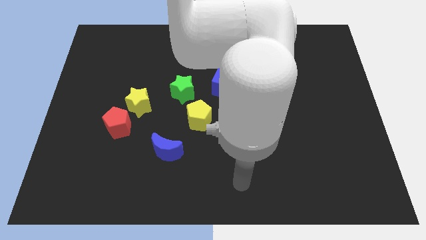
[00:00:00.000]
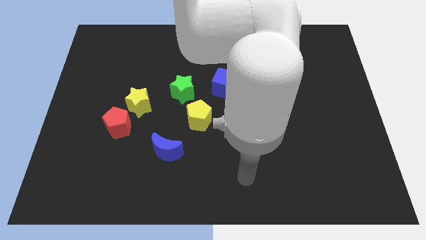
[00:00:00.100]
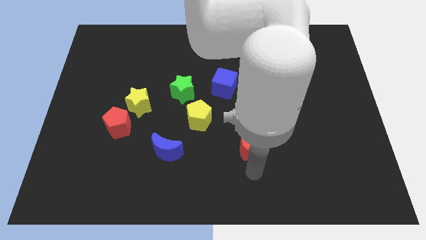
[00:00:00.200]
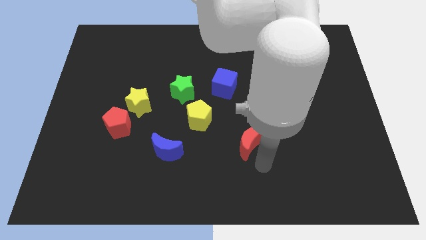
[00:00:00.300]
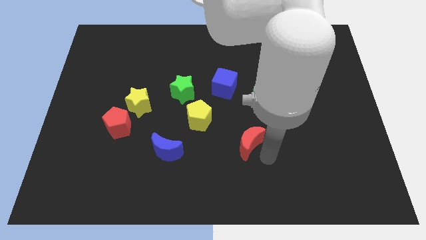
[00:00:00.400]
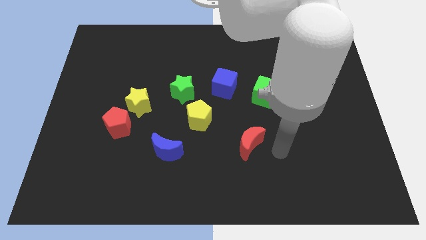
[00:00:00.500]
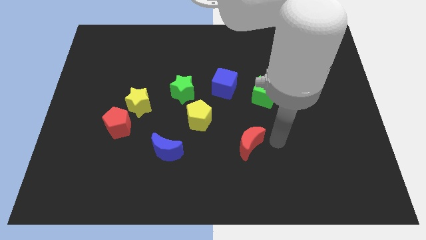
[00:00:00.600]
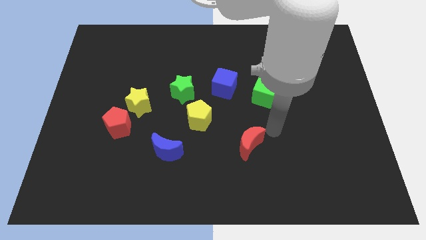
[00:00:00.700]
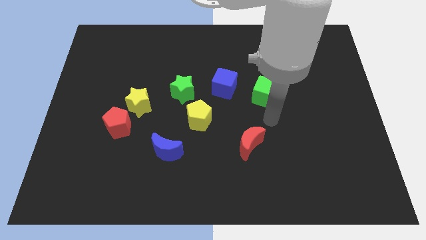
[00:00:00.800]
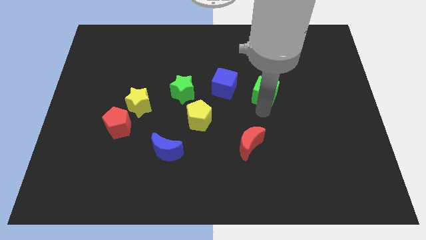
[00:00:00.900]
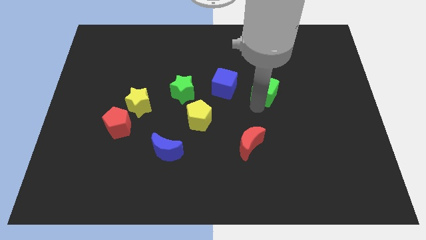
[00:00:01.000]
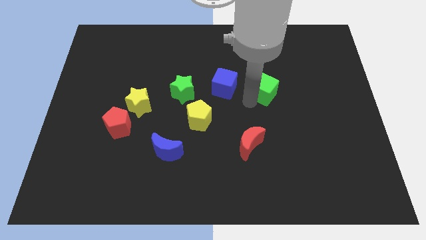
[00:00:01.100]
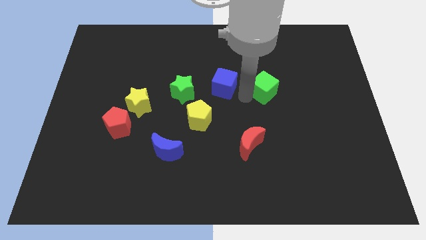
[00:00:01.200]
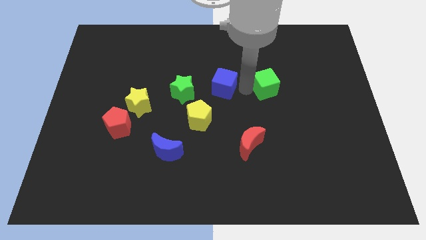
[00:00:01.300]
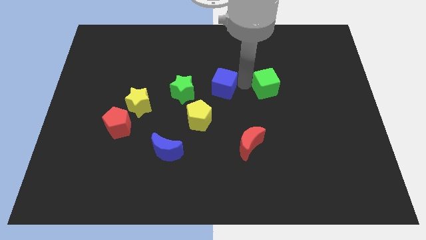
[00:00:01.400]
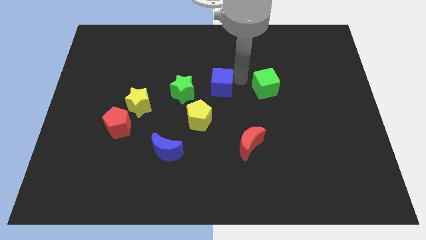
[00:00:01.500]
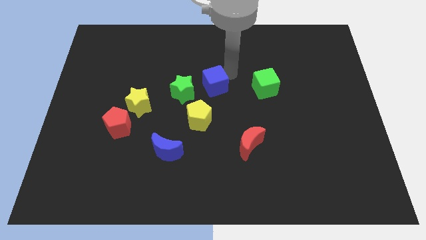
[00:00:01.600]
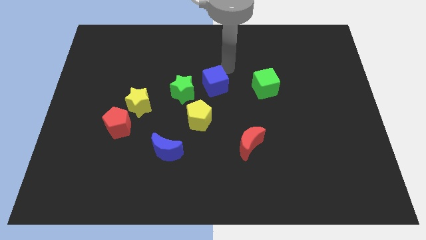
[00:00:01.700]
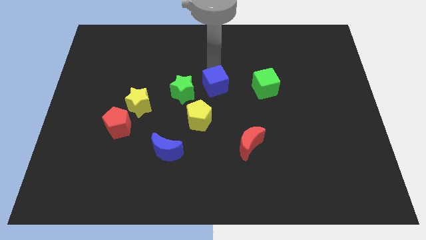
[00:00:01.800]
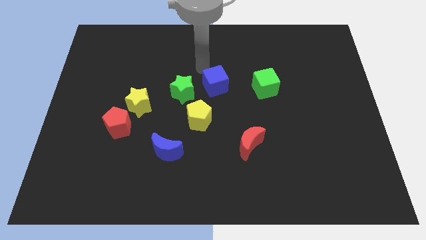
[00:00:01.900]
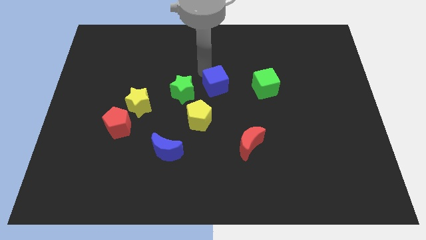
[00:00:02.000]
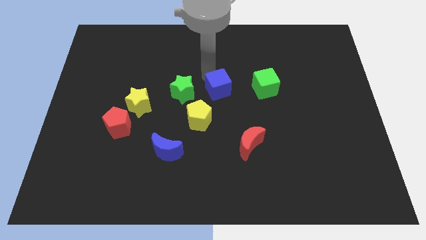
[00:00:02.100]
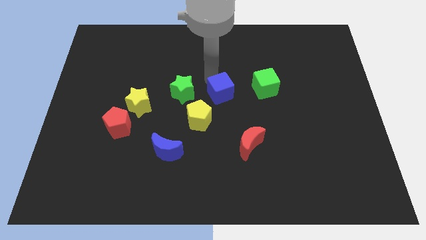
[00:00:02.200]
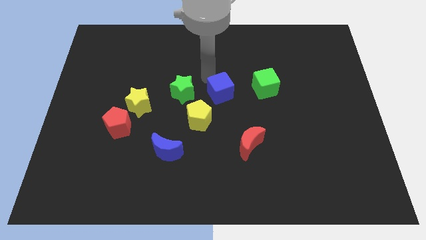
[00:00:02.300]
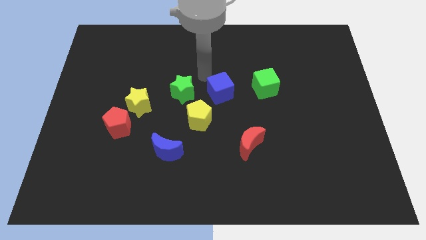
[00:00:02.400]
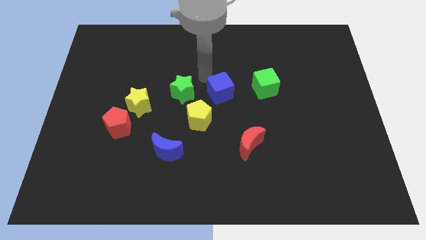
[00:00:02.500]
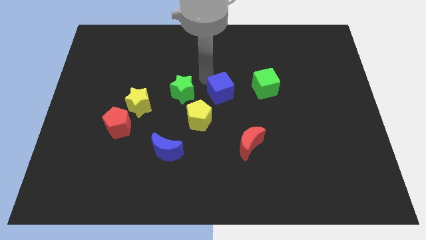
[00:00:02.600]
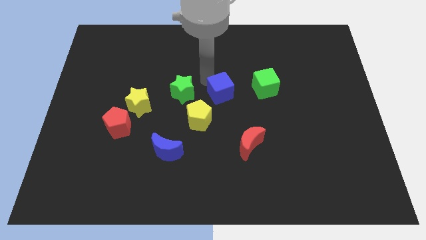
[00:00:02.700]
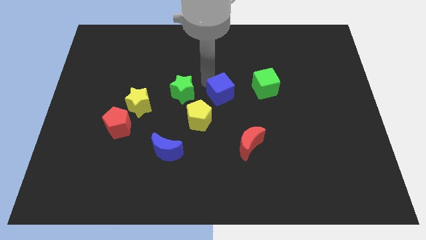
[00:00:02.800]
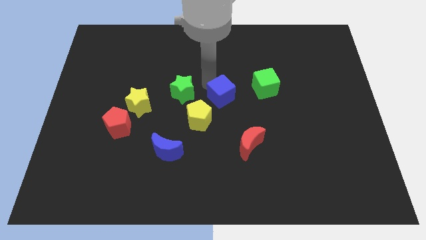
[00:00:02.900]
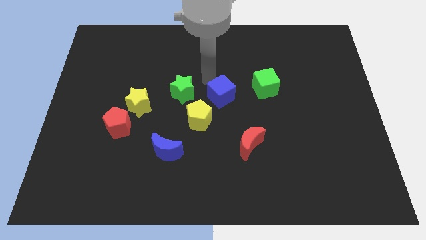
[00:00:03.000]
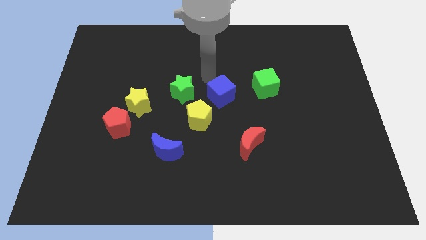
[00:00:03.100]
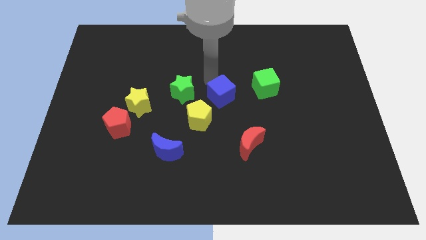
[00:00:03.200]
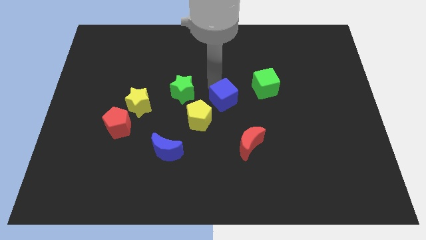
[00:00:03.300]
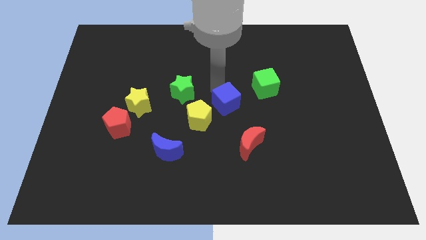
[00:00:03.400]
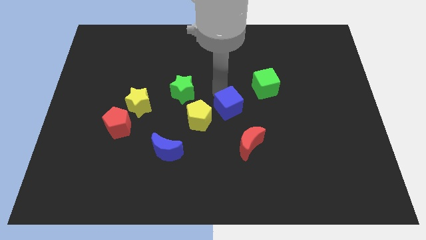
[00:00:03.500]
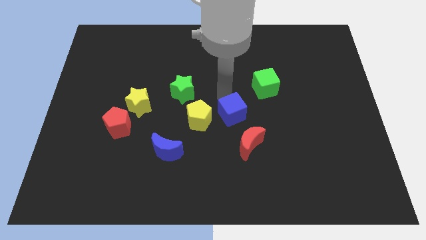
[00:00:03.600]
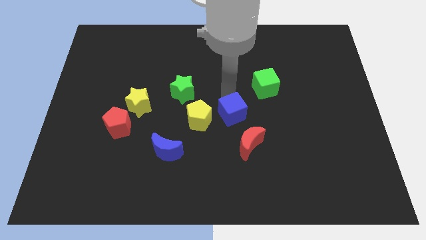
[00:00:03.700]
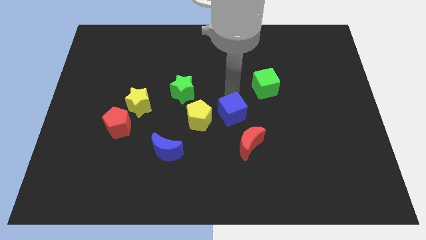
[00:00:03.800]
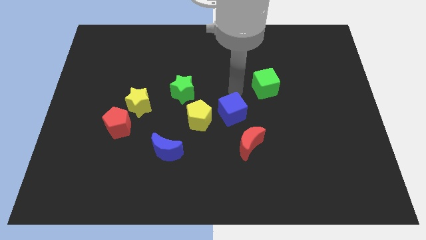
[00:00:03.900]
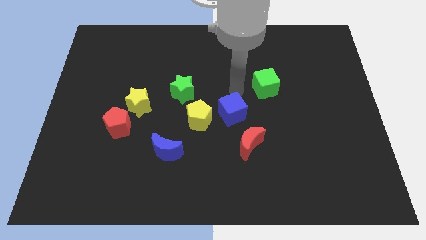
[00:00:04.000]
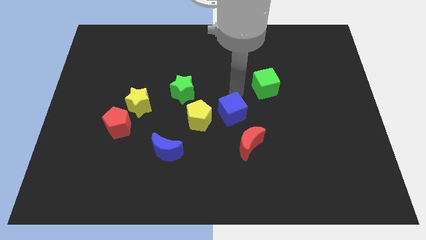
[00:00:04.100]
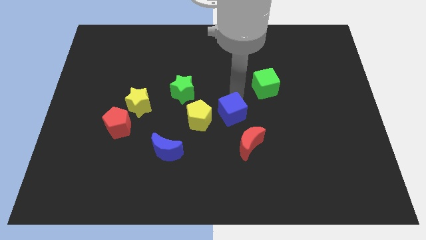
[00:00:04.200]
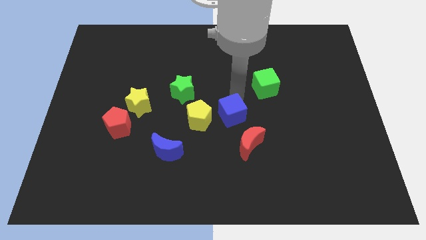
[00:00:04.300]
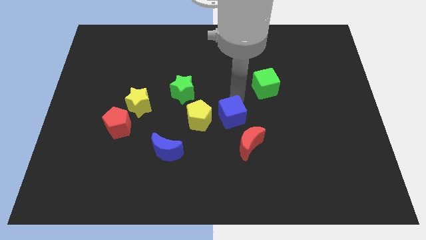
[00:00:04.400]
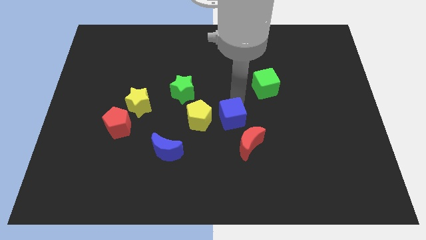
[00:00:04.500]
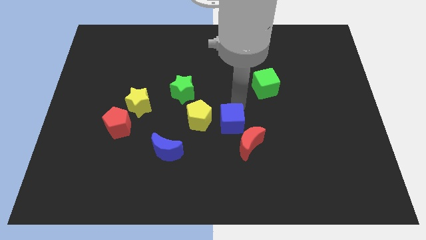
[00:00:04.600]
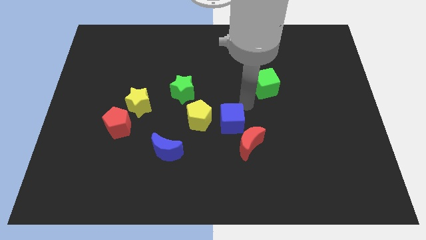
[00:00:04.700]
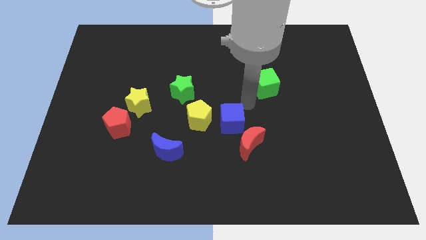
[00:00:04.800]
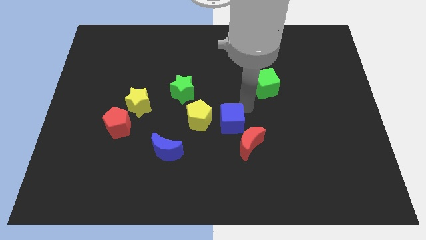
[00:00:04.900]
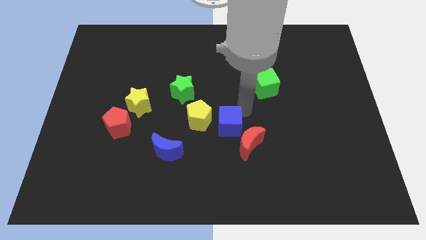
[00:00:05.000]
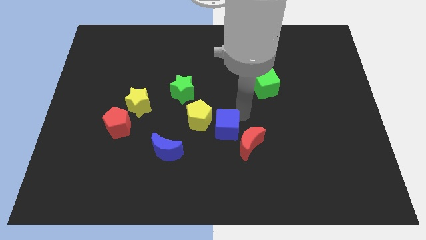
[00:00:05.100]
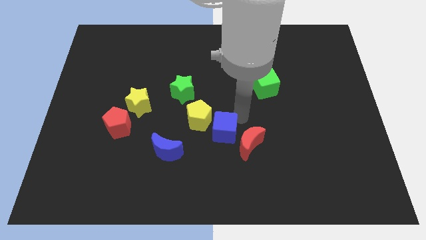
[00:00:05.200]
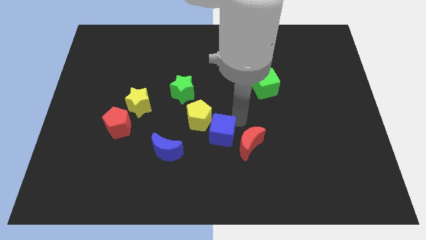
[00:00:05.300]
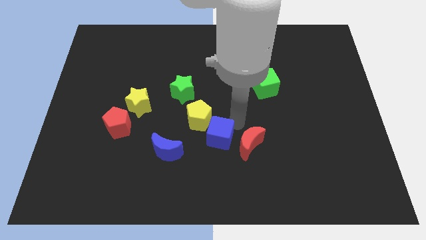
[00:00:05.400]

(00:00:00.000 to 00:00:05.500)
move the blue cube to the bottom of the yellow pentagon

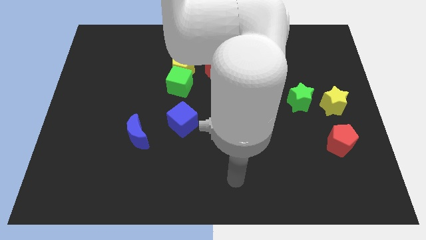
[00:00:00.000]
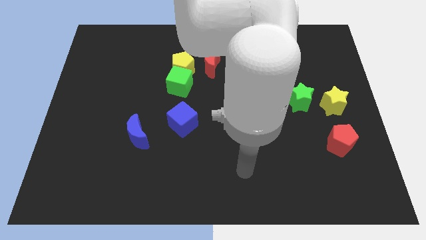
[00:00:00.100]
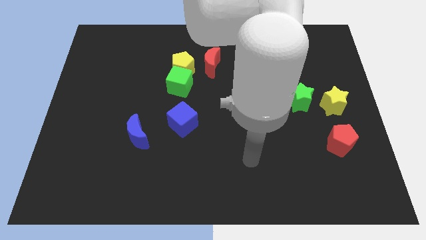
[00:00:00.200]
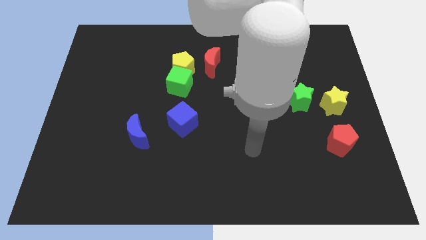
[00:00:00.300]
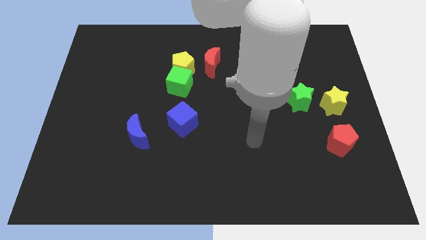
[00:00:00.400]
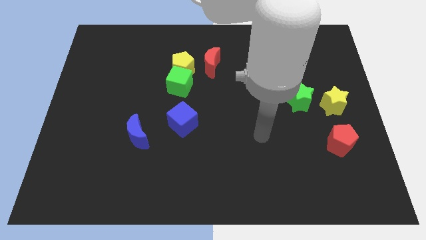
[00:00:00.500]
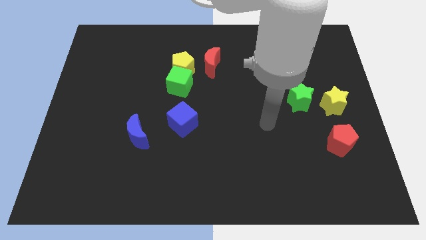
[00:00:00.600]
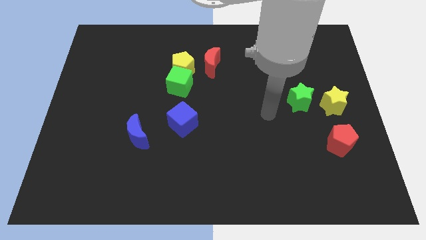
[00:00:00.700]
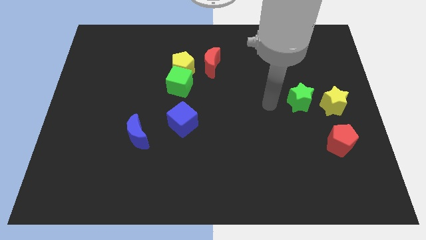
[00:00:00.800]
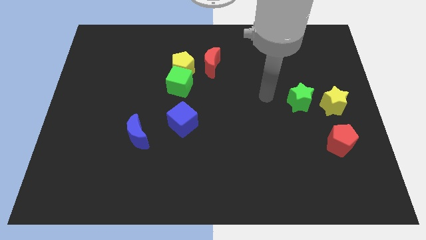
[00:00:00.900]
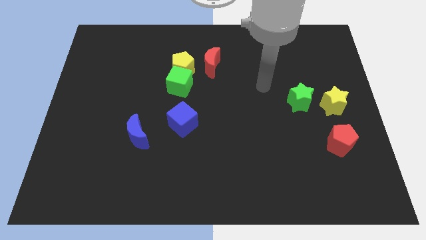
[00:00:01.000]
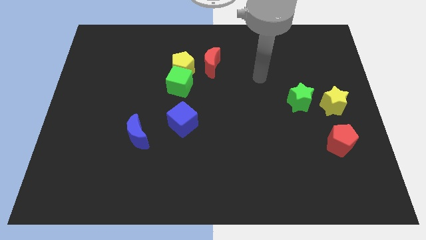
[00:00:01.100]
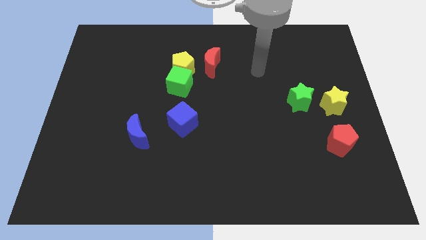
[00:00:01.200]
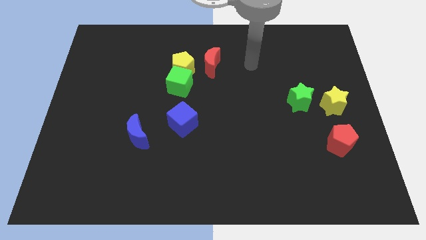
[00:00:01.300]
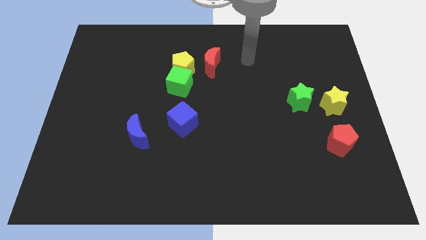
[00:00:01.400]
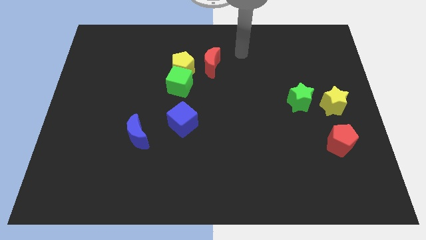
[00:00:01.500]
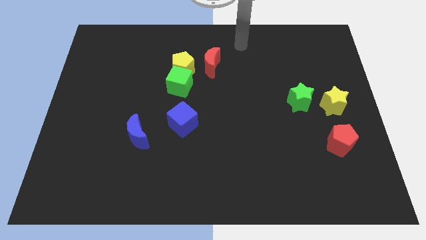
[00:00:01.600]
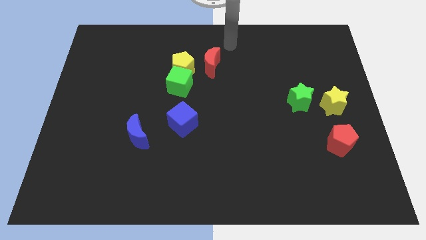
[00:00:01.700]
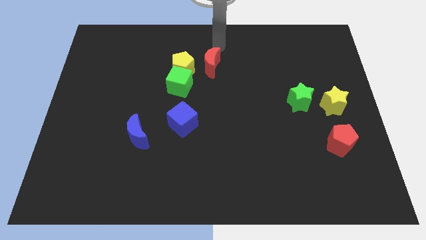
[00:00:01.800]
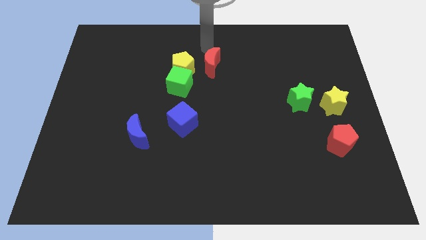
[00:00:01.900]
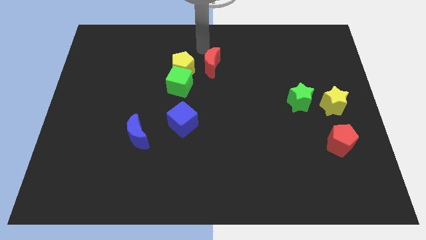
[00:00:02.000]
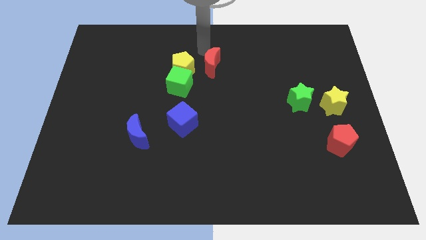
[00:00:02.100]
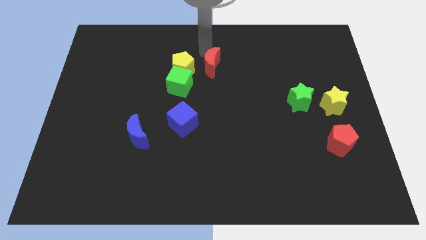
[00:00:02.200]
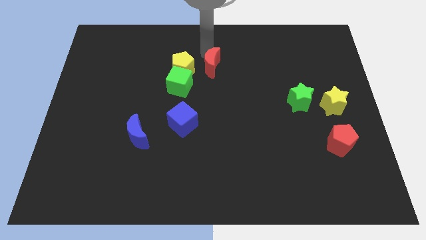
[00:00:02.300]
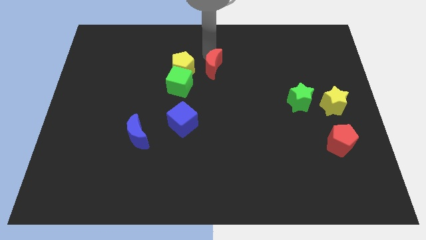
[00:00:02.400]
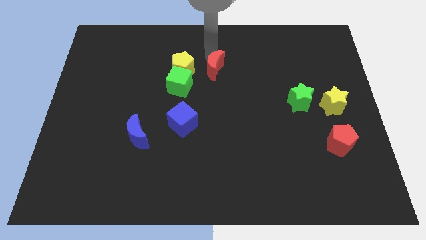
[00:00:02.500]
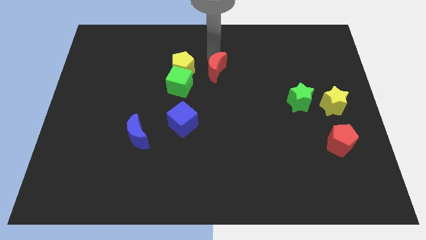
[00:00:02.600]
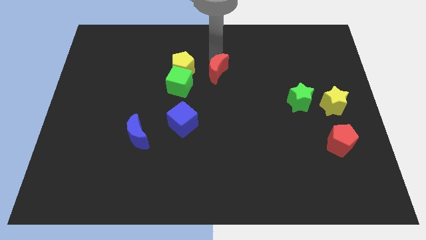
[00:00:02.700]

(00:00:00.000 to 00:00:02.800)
slide the red moon right of the green cube
